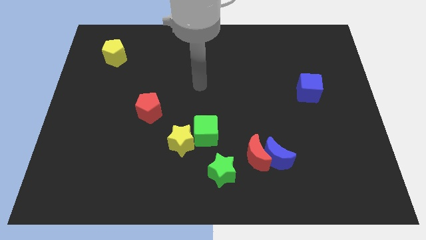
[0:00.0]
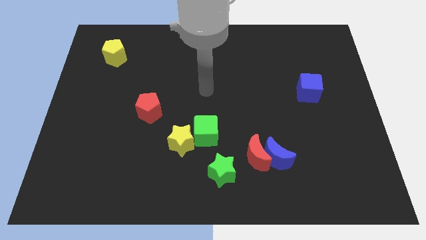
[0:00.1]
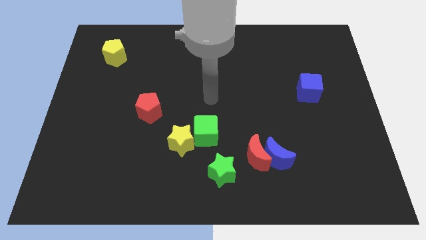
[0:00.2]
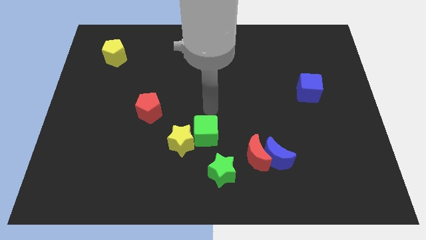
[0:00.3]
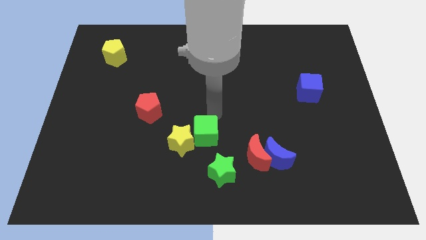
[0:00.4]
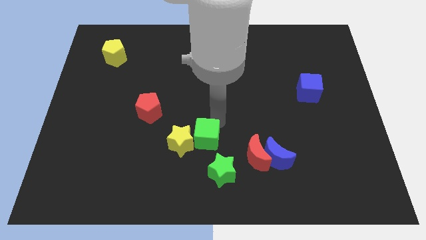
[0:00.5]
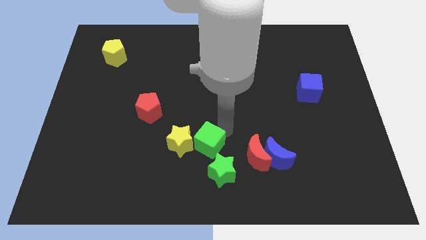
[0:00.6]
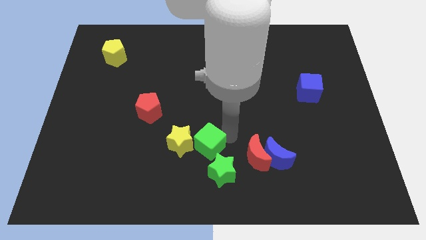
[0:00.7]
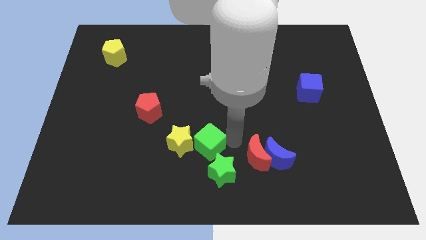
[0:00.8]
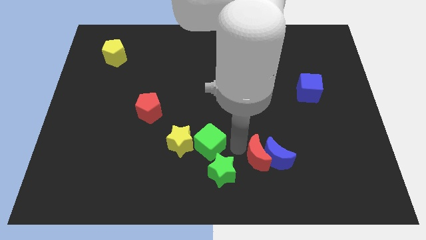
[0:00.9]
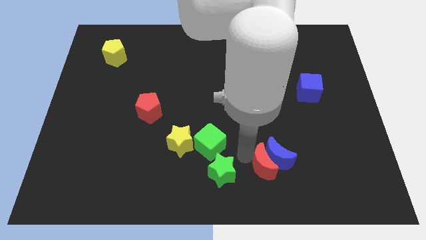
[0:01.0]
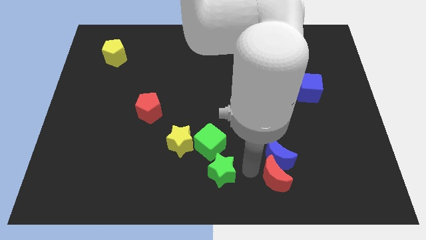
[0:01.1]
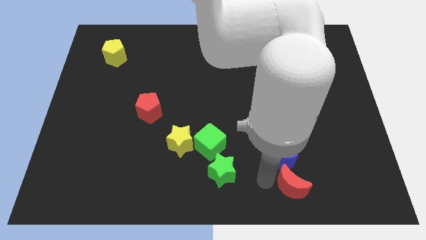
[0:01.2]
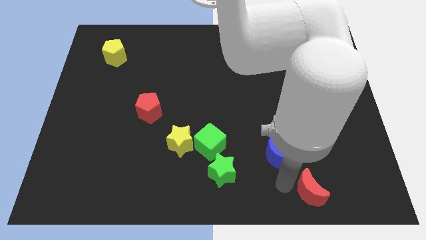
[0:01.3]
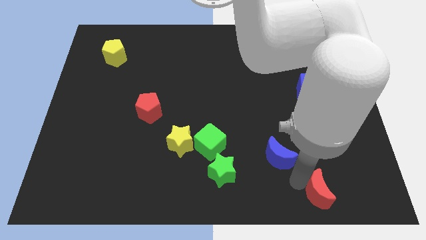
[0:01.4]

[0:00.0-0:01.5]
pull the blue moon apart from the red moon

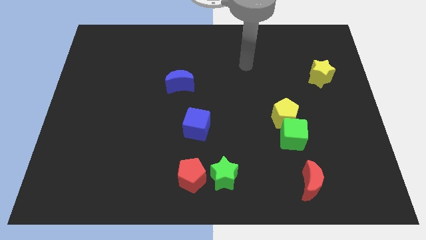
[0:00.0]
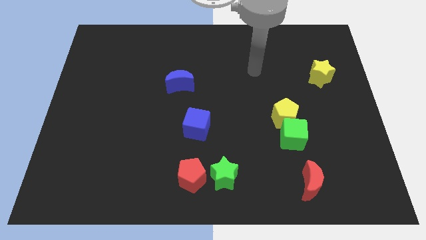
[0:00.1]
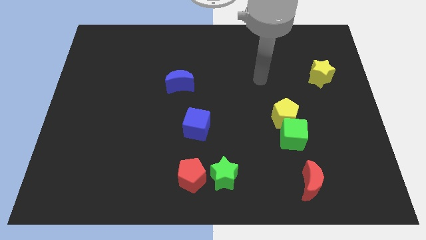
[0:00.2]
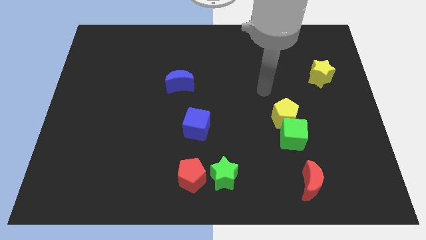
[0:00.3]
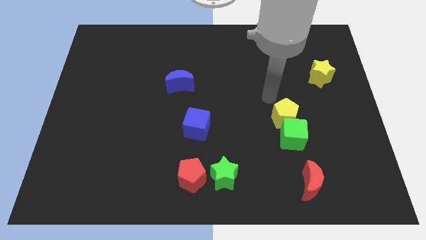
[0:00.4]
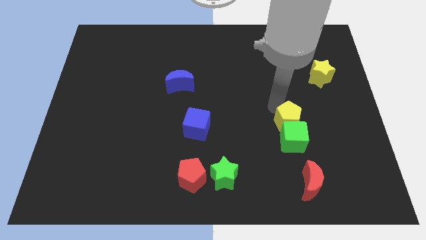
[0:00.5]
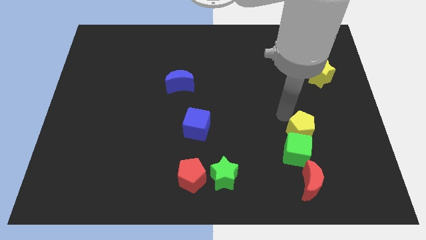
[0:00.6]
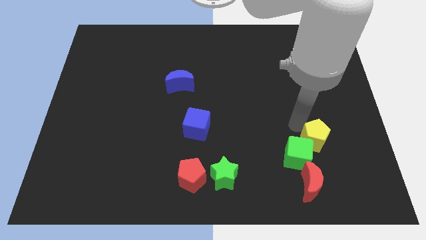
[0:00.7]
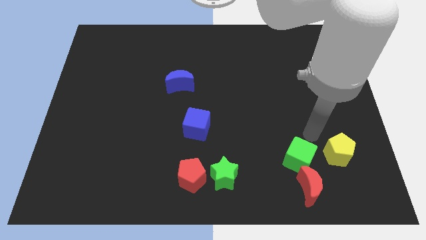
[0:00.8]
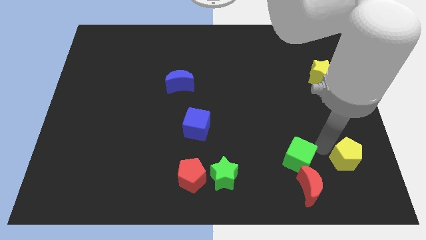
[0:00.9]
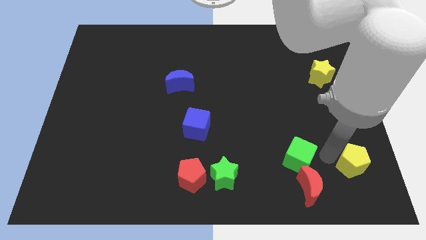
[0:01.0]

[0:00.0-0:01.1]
separate the green cube from the yellow pentagon

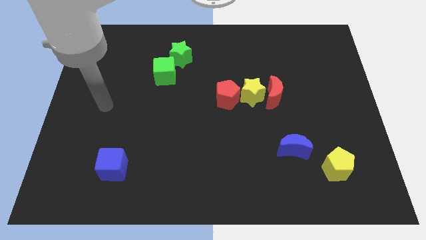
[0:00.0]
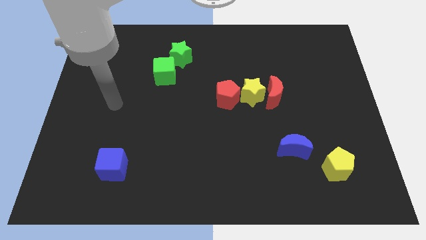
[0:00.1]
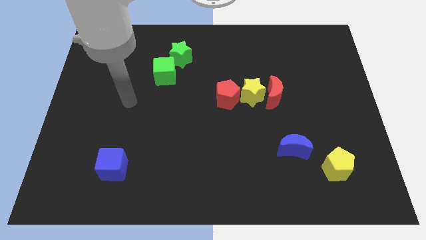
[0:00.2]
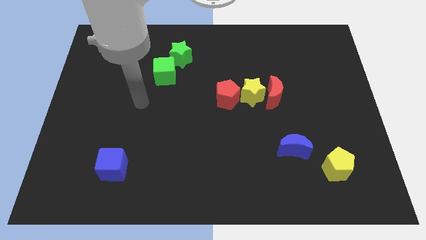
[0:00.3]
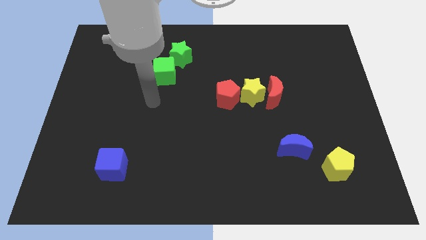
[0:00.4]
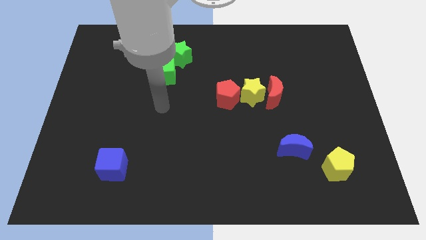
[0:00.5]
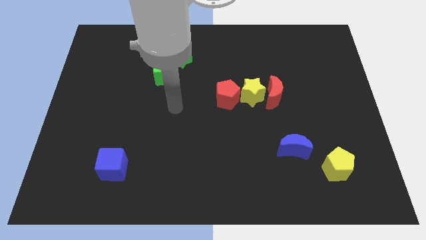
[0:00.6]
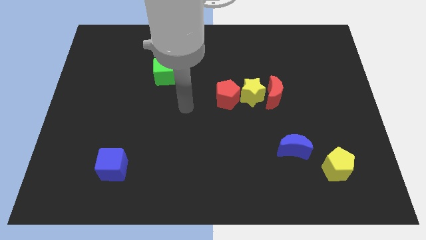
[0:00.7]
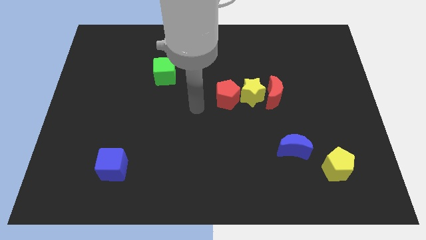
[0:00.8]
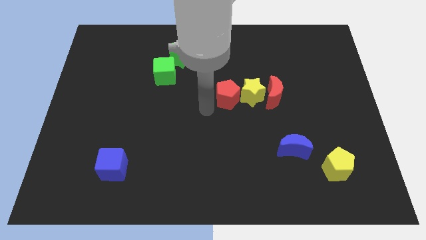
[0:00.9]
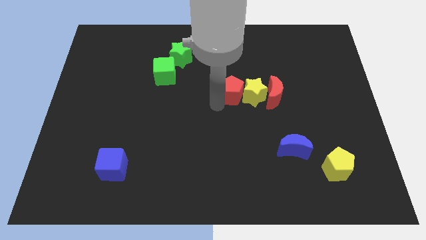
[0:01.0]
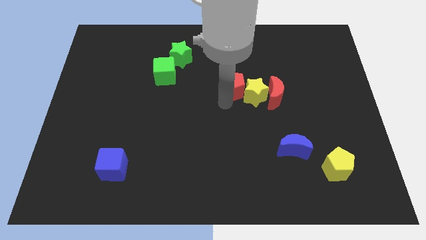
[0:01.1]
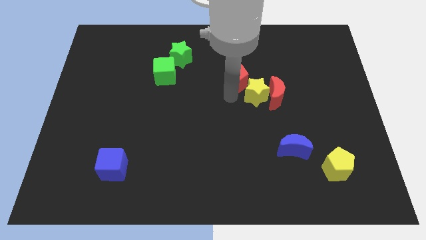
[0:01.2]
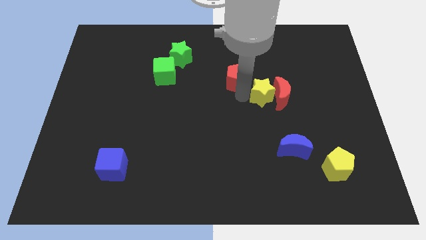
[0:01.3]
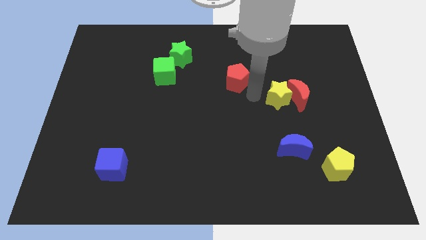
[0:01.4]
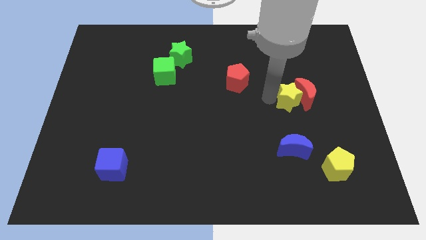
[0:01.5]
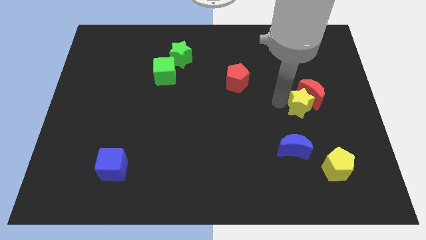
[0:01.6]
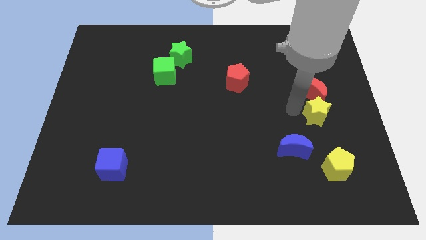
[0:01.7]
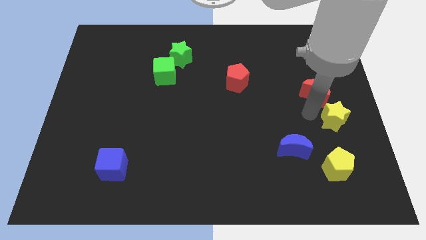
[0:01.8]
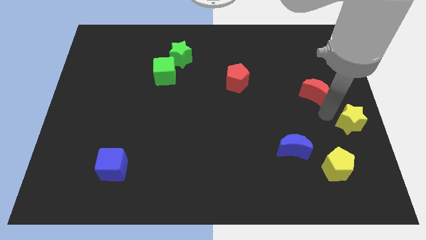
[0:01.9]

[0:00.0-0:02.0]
pull the red moon apart from the yellow star

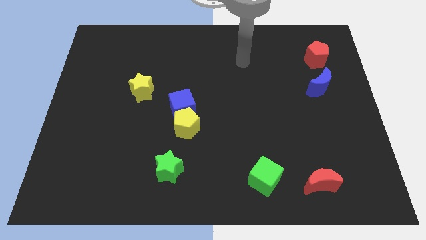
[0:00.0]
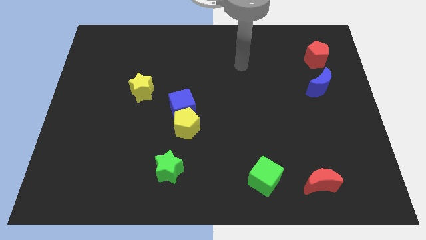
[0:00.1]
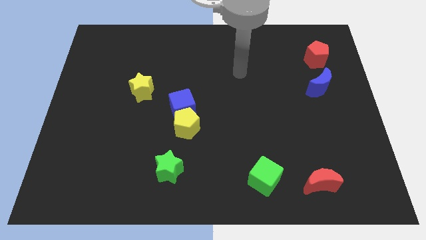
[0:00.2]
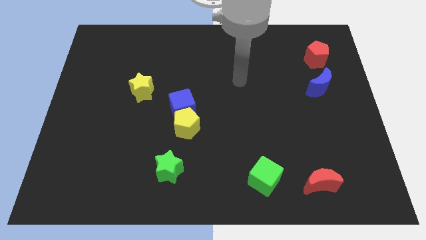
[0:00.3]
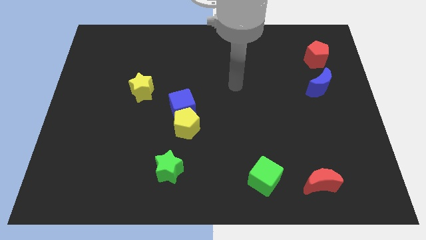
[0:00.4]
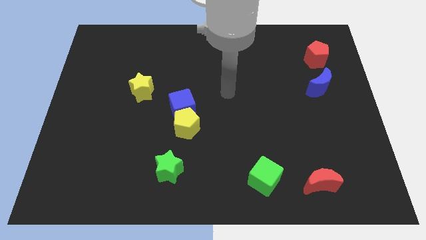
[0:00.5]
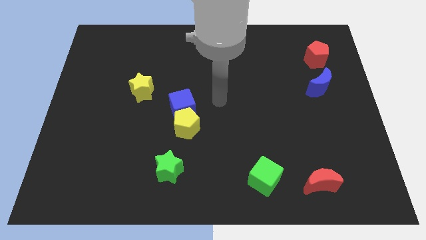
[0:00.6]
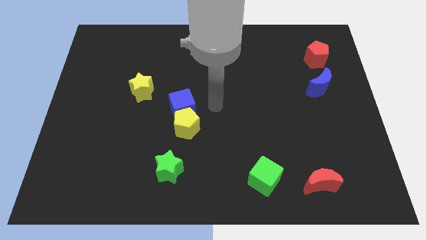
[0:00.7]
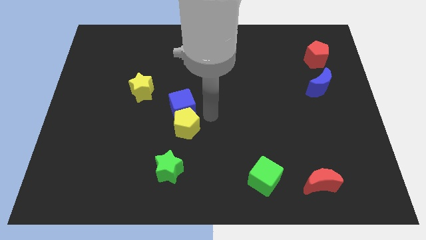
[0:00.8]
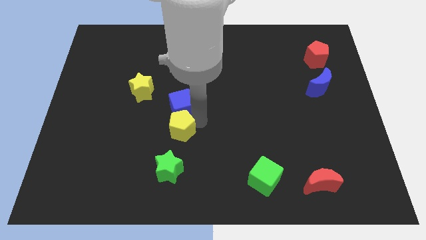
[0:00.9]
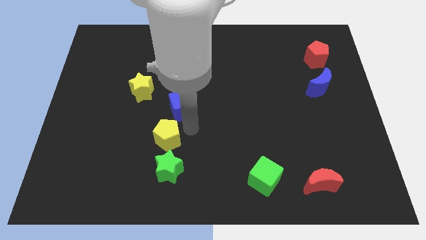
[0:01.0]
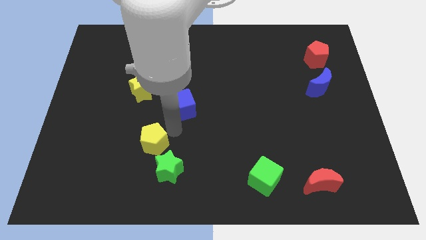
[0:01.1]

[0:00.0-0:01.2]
pull the blue cube apart from the yellow pentagon

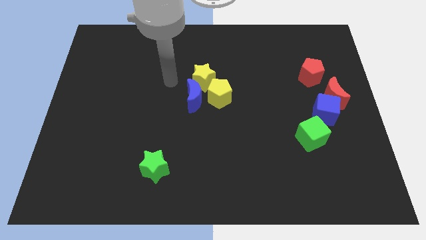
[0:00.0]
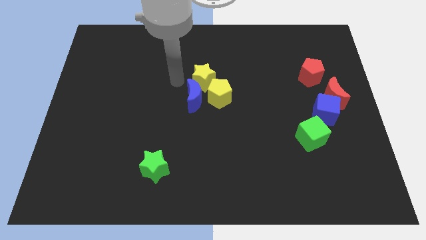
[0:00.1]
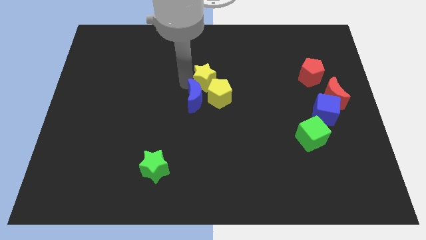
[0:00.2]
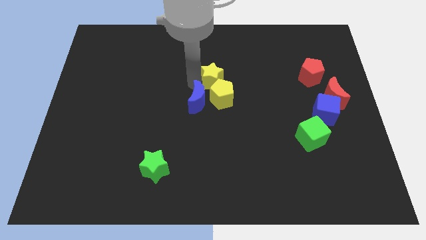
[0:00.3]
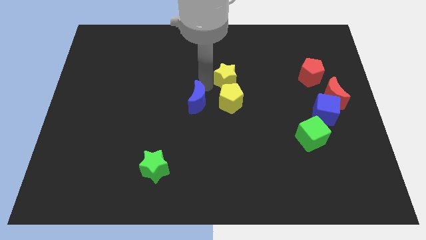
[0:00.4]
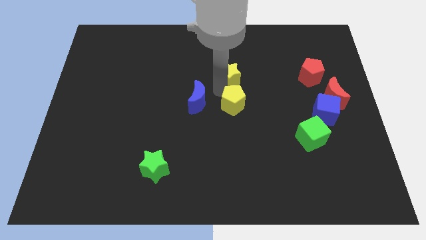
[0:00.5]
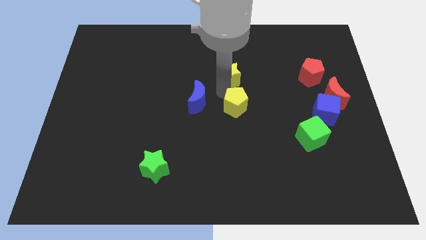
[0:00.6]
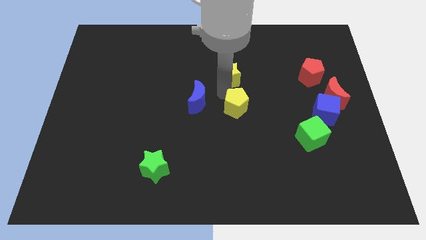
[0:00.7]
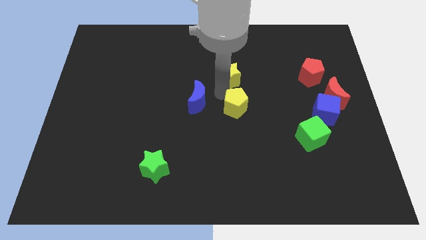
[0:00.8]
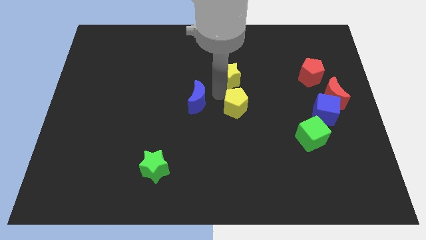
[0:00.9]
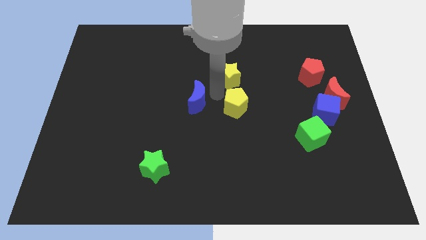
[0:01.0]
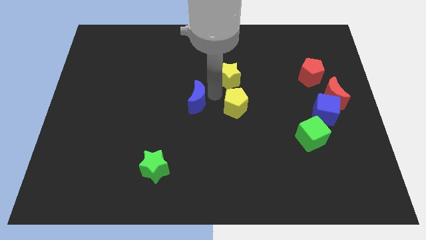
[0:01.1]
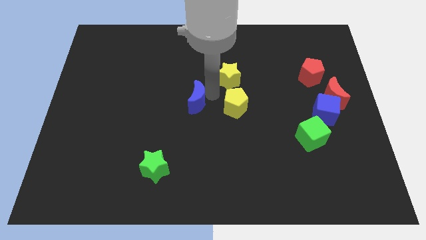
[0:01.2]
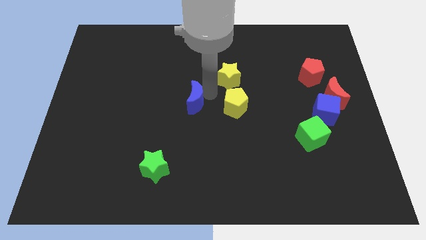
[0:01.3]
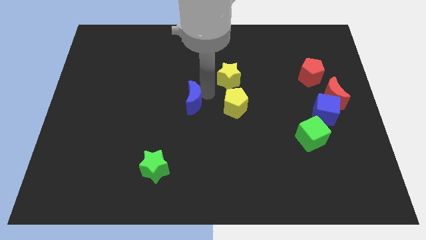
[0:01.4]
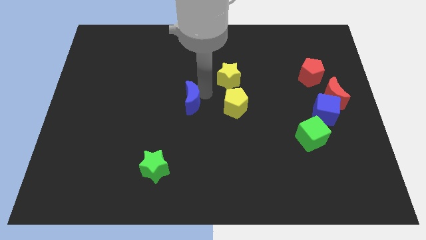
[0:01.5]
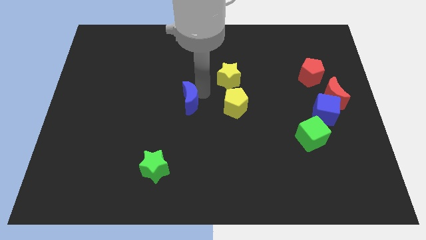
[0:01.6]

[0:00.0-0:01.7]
move the blue moon away from the yellow pentagon and yellow star

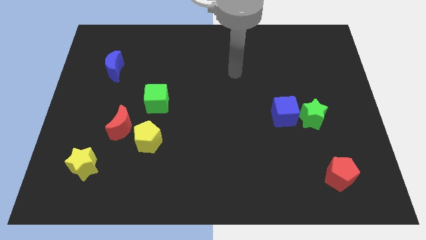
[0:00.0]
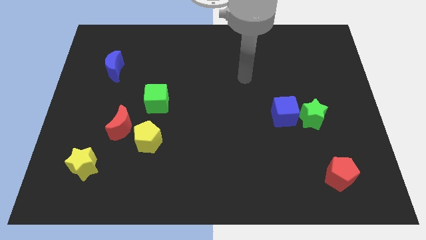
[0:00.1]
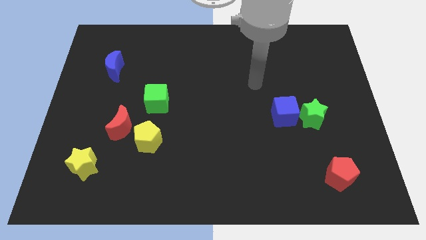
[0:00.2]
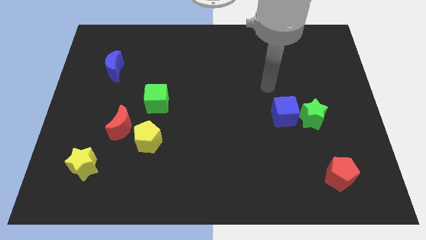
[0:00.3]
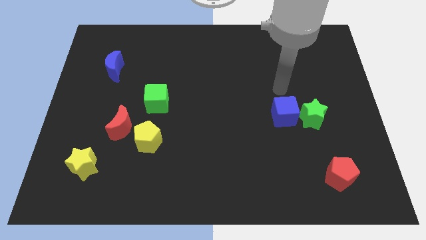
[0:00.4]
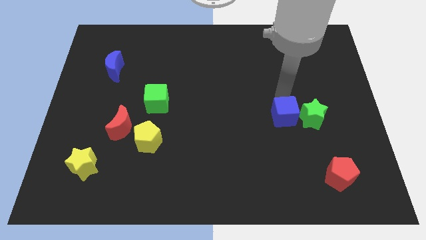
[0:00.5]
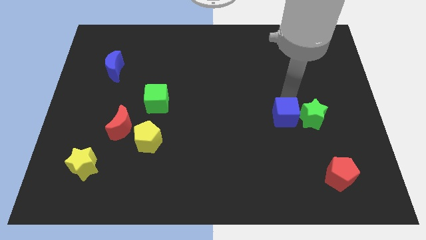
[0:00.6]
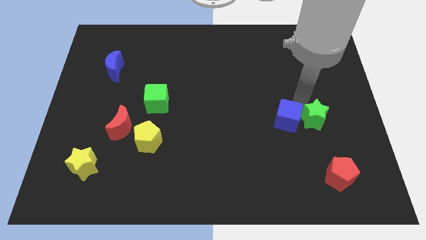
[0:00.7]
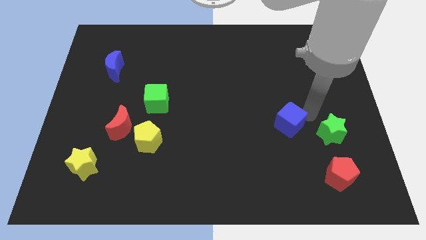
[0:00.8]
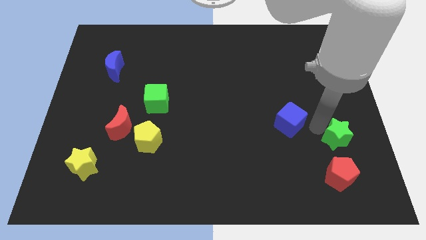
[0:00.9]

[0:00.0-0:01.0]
separate the blue cube from the green star

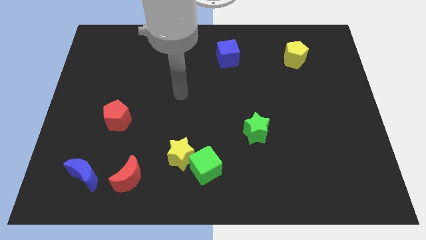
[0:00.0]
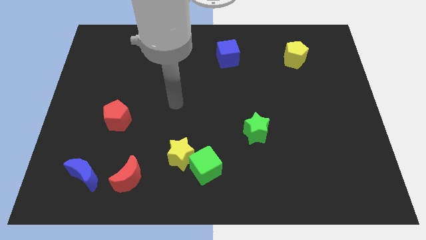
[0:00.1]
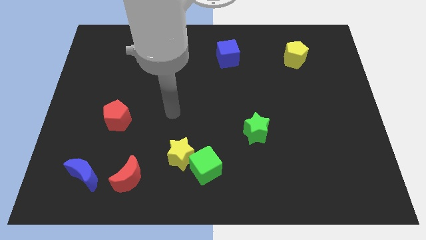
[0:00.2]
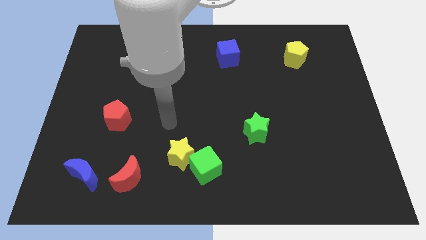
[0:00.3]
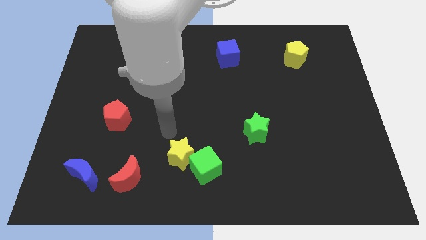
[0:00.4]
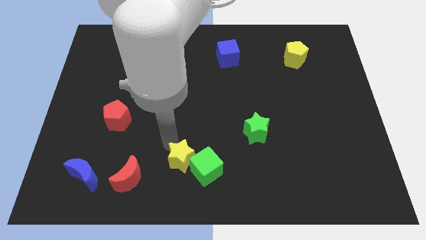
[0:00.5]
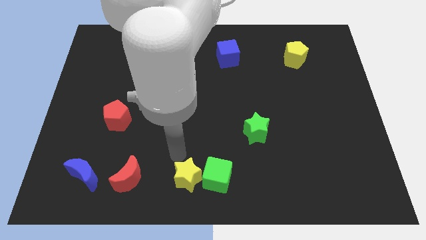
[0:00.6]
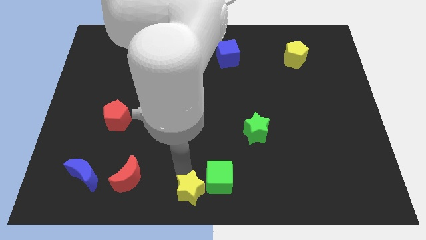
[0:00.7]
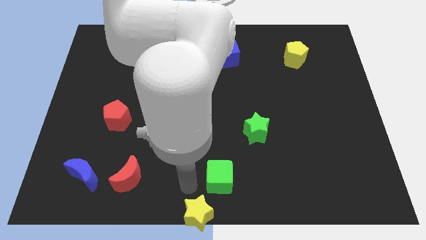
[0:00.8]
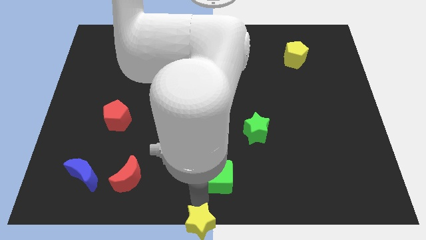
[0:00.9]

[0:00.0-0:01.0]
separate the green cube from the yellow star
